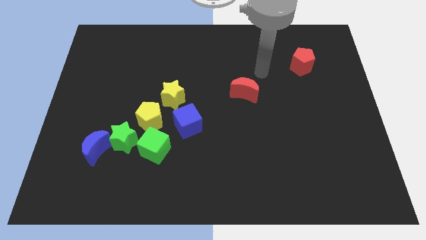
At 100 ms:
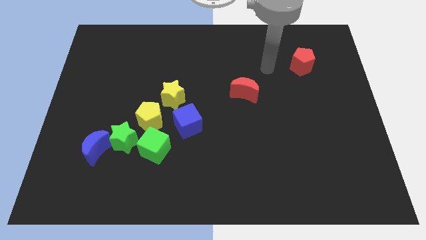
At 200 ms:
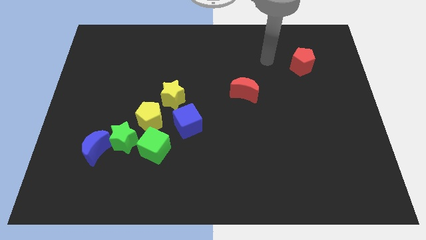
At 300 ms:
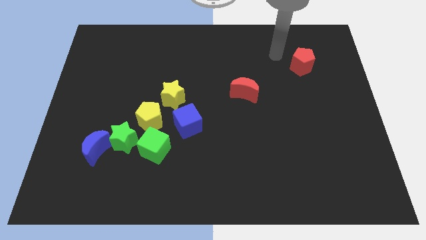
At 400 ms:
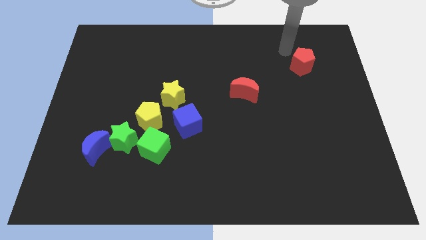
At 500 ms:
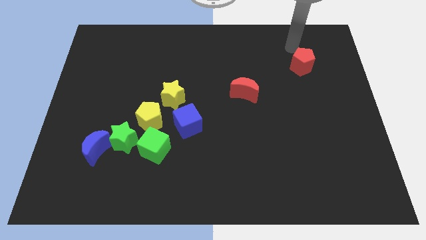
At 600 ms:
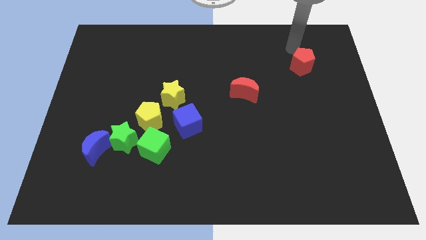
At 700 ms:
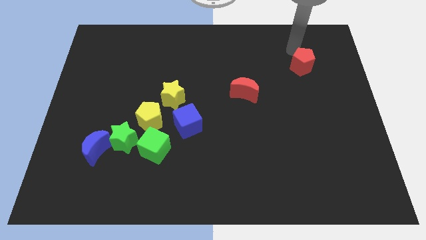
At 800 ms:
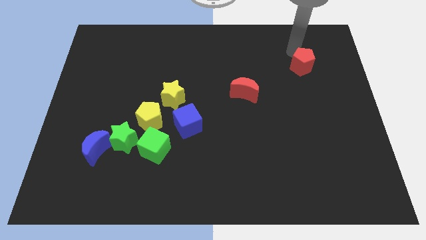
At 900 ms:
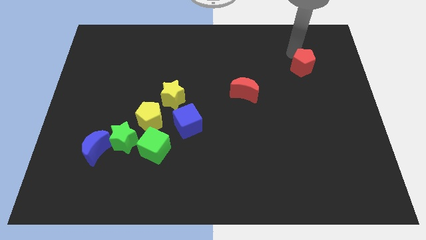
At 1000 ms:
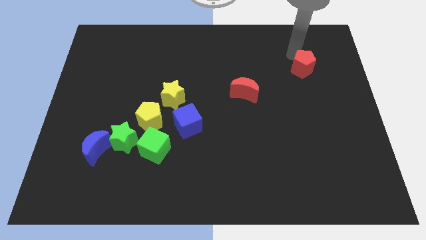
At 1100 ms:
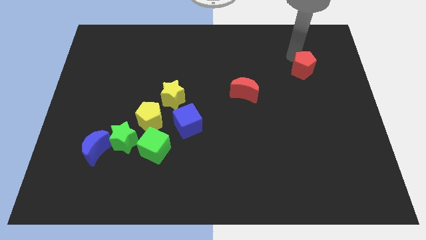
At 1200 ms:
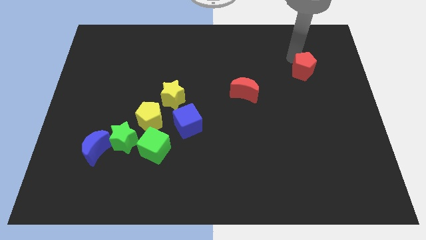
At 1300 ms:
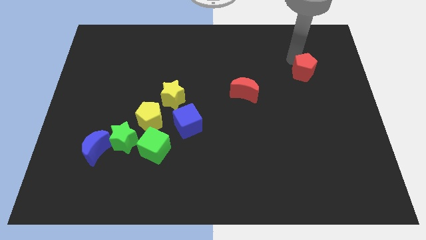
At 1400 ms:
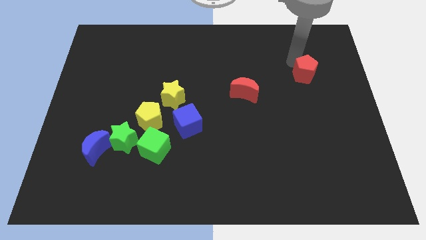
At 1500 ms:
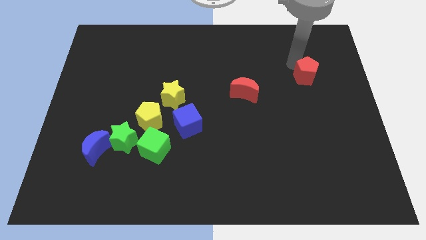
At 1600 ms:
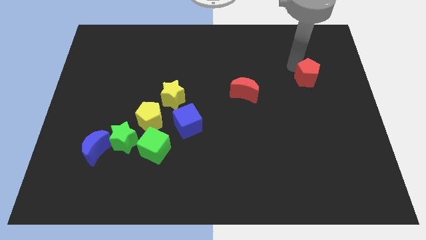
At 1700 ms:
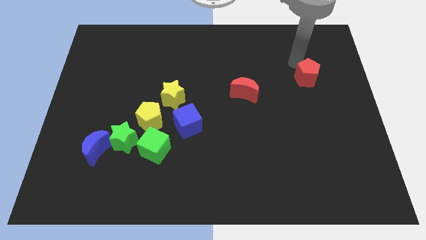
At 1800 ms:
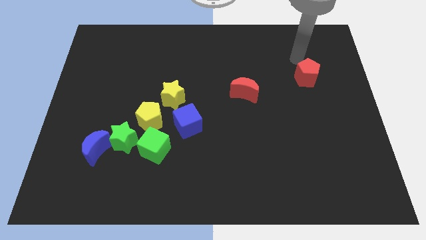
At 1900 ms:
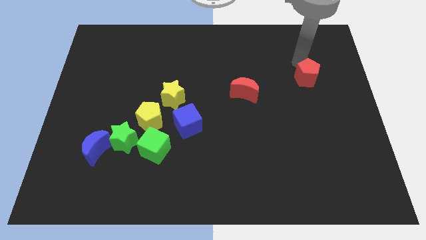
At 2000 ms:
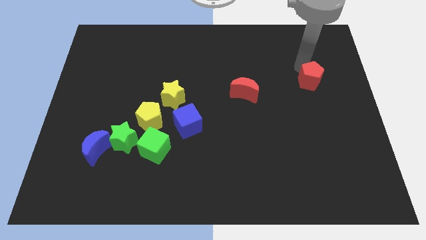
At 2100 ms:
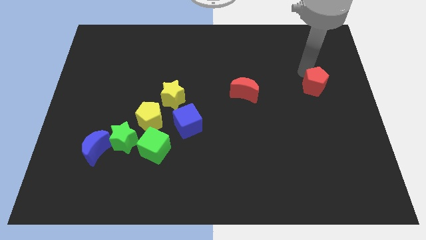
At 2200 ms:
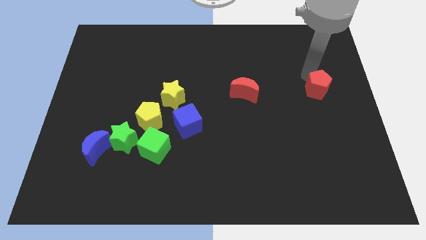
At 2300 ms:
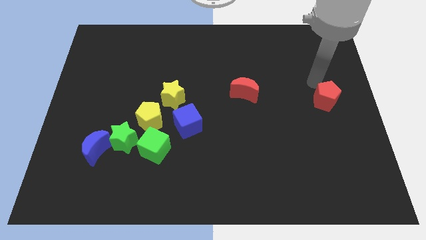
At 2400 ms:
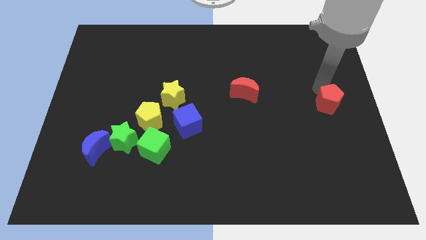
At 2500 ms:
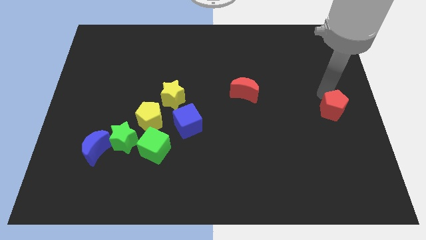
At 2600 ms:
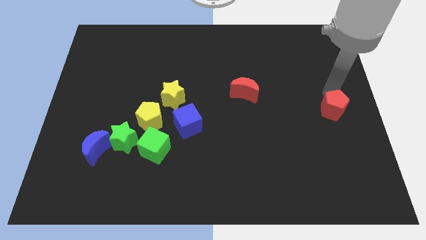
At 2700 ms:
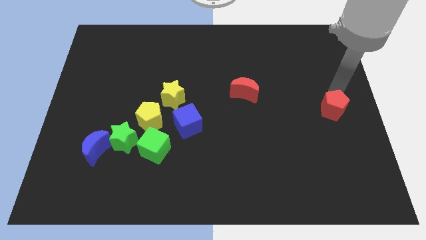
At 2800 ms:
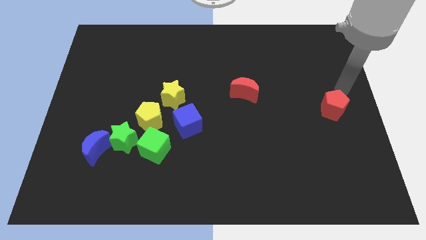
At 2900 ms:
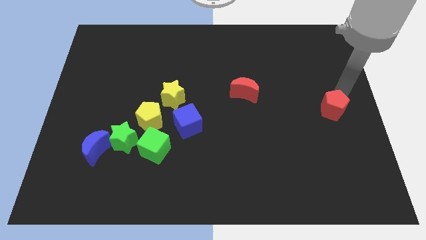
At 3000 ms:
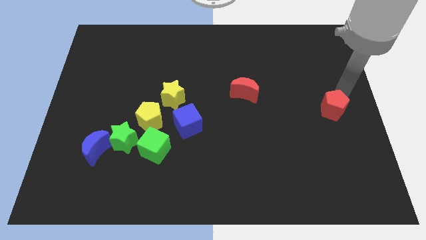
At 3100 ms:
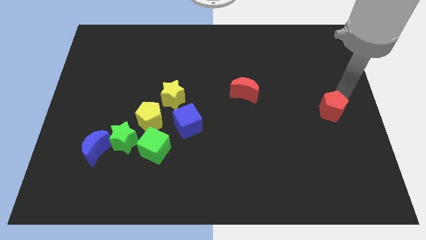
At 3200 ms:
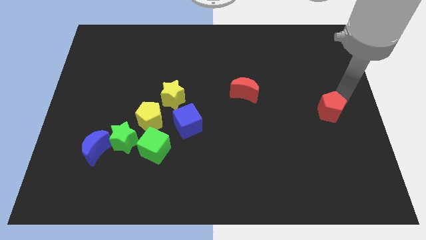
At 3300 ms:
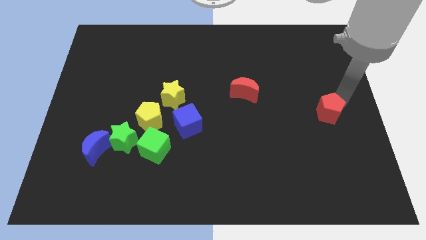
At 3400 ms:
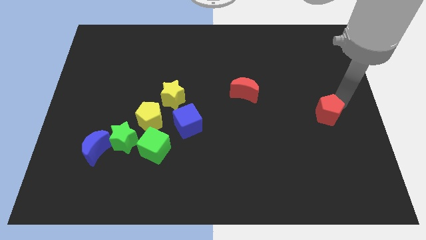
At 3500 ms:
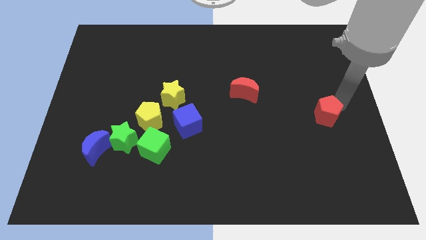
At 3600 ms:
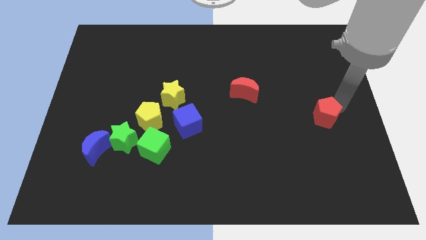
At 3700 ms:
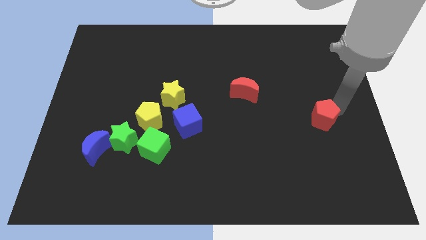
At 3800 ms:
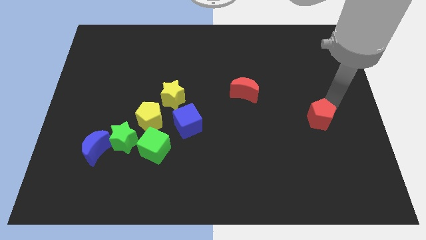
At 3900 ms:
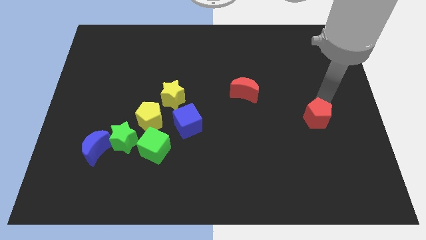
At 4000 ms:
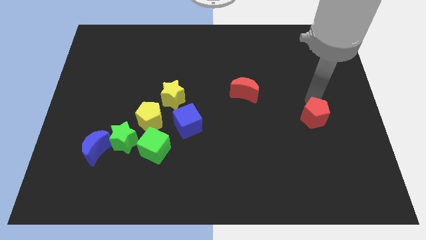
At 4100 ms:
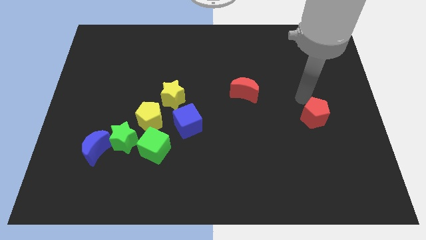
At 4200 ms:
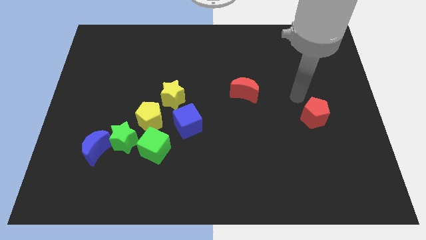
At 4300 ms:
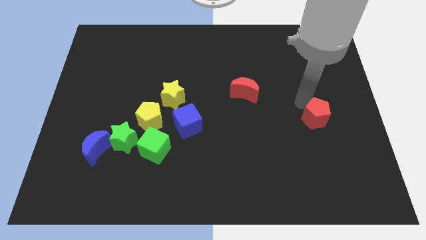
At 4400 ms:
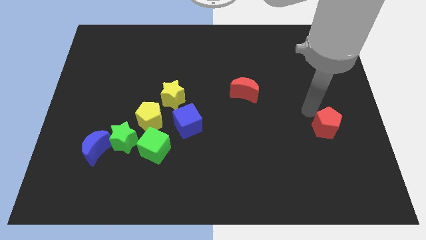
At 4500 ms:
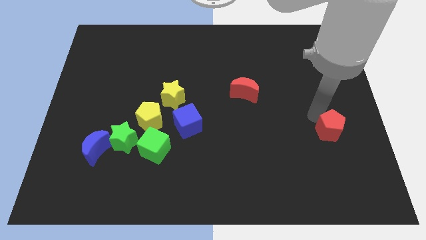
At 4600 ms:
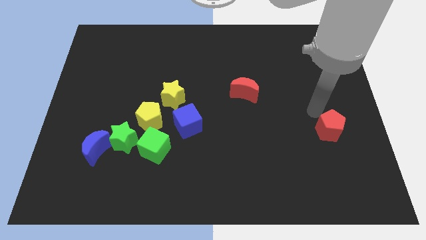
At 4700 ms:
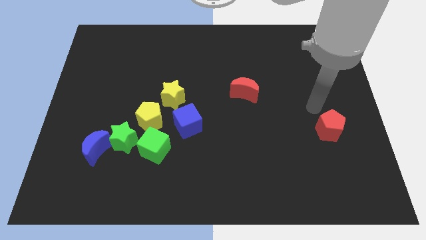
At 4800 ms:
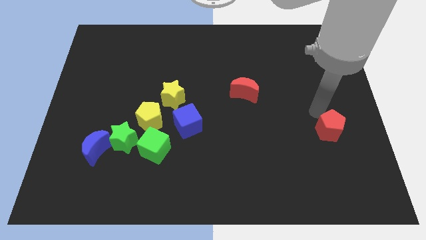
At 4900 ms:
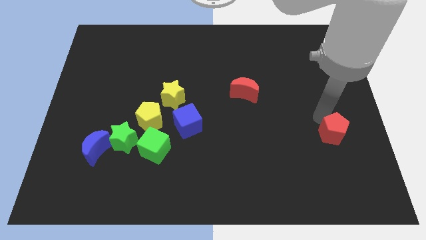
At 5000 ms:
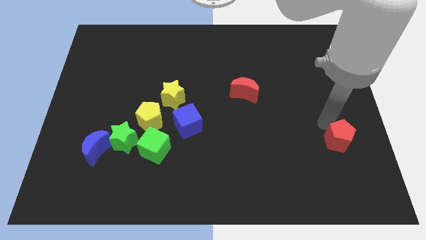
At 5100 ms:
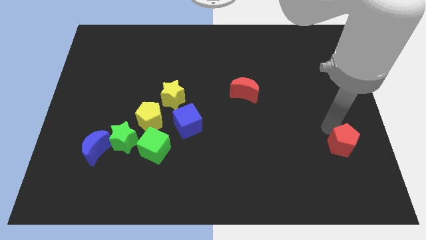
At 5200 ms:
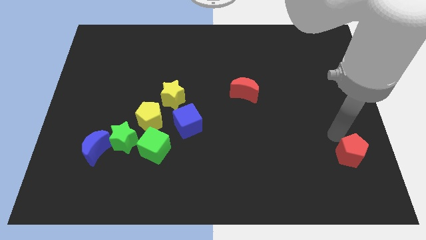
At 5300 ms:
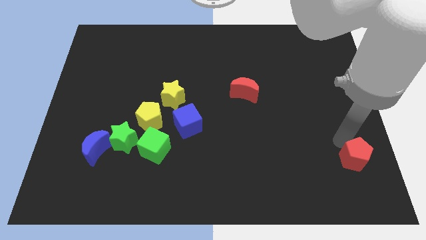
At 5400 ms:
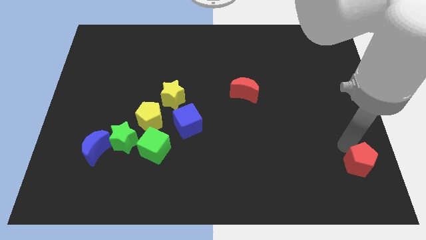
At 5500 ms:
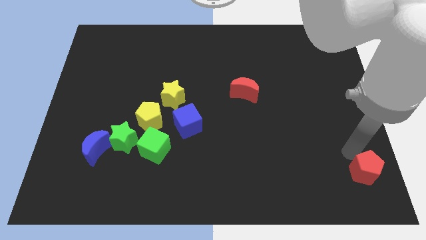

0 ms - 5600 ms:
slide the red pentagon to the bottom right

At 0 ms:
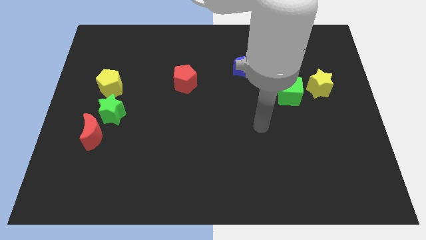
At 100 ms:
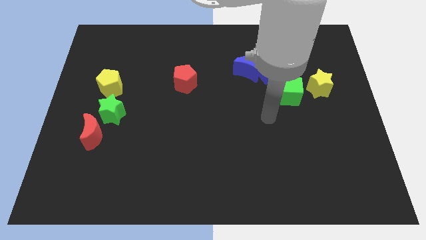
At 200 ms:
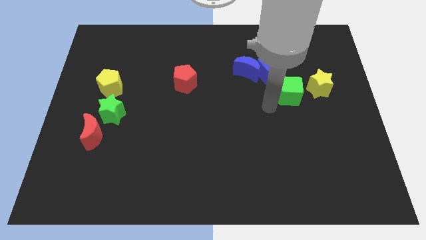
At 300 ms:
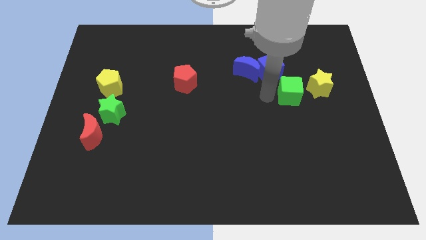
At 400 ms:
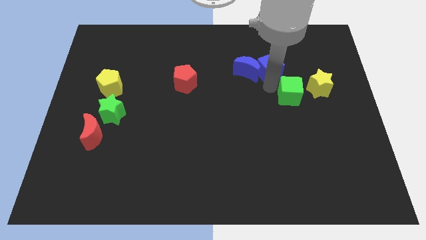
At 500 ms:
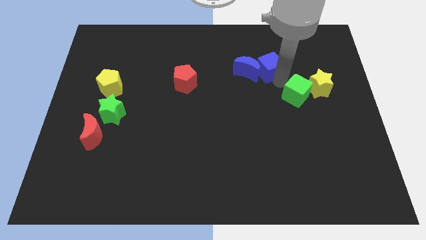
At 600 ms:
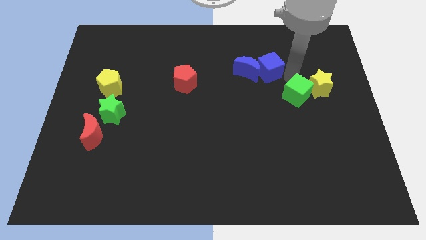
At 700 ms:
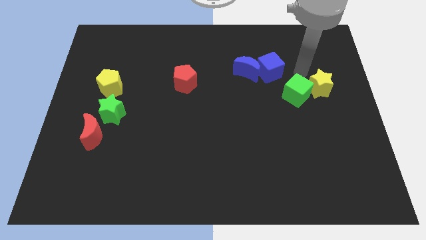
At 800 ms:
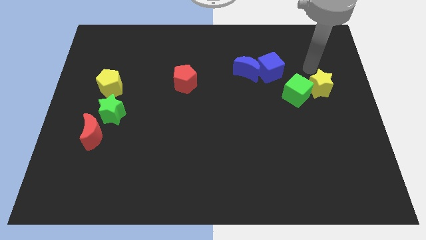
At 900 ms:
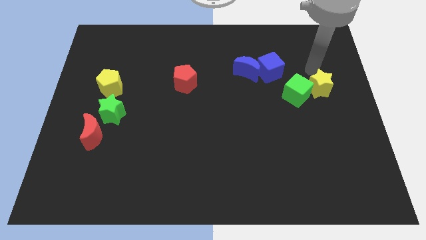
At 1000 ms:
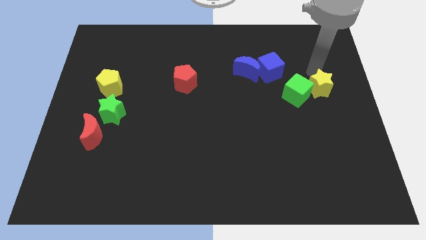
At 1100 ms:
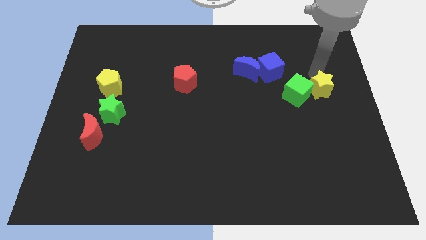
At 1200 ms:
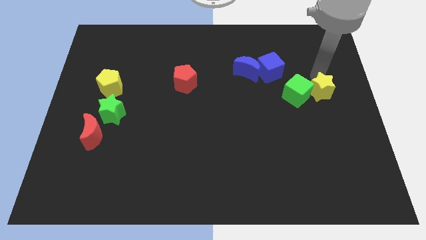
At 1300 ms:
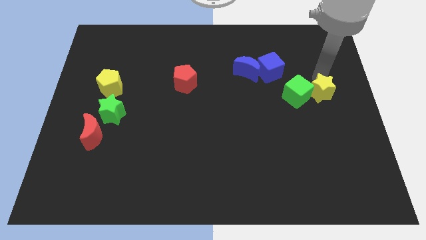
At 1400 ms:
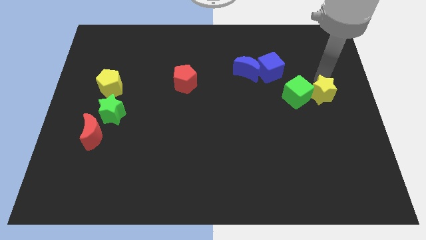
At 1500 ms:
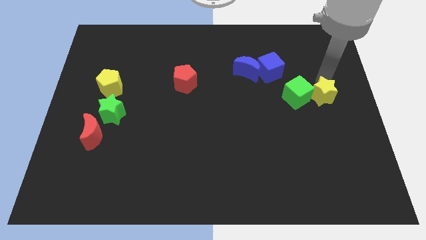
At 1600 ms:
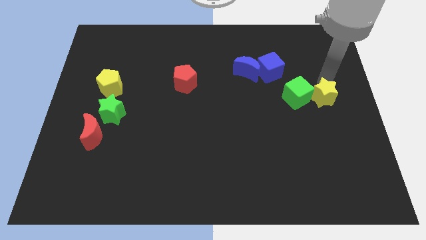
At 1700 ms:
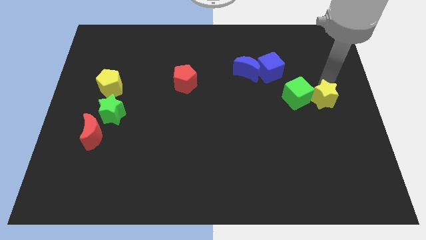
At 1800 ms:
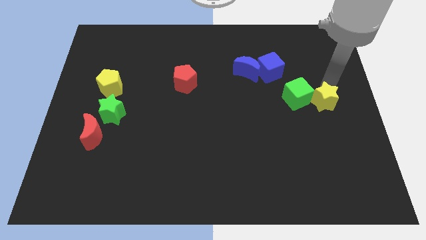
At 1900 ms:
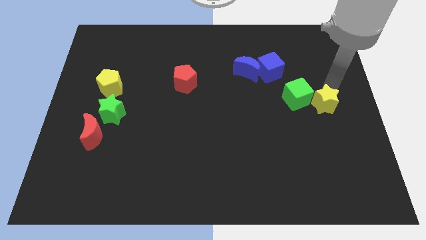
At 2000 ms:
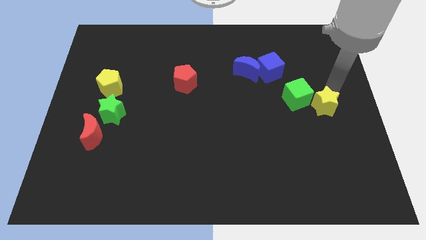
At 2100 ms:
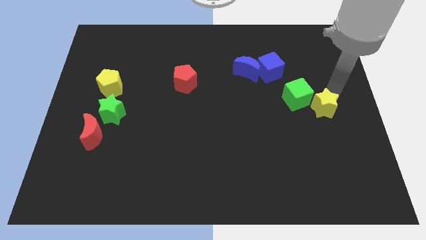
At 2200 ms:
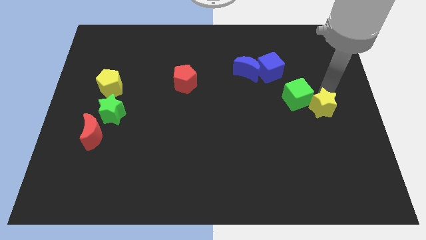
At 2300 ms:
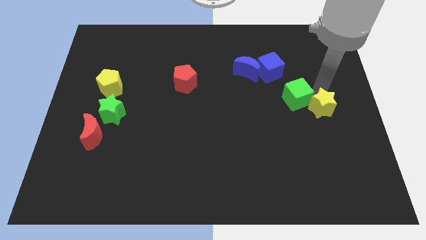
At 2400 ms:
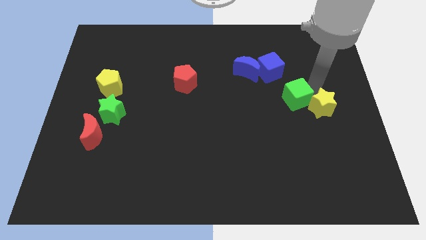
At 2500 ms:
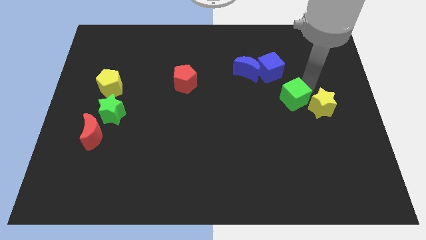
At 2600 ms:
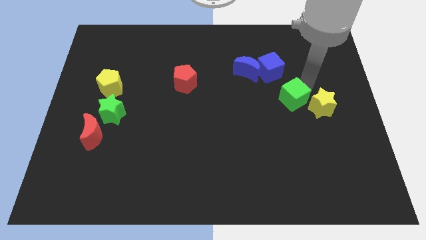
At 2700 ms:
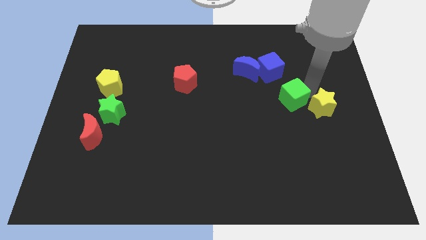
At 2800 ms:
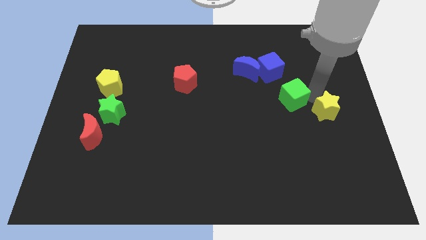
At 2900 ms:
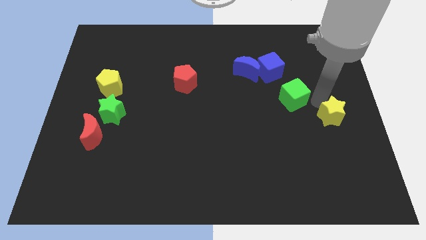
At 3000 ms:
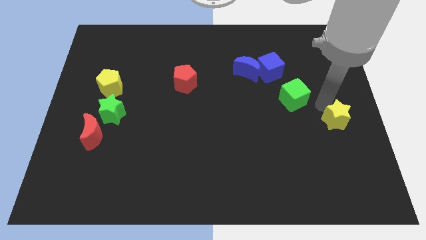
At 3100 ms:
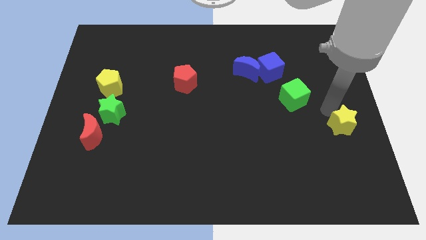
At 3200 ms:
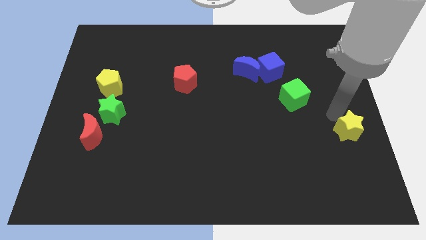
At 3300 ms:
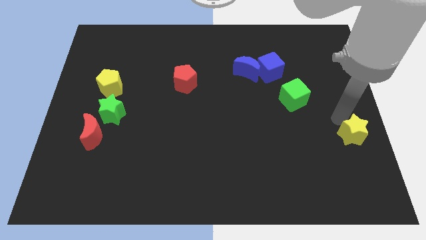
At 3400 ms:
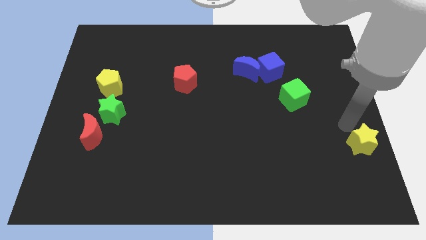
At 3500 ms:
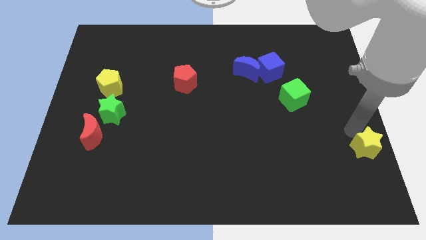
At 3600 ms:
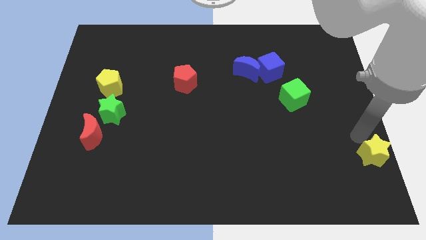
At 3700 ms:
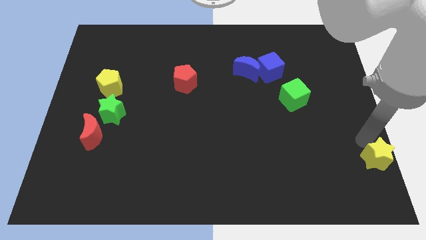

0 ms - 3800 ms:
move the yellow star to the lower right corner
